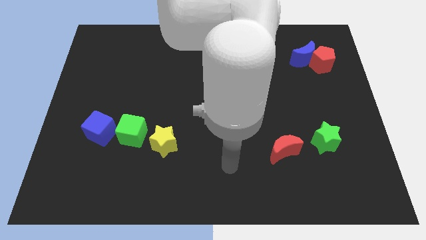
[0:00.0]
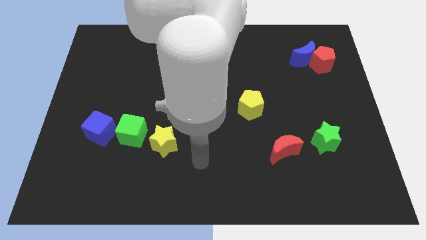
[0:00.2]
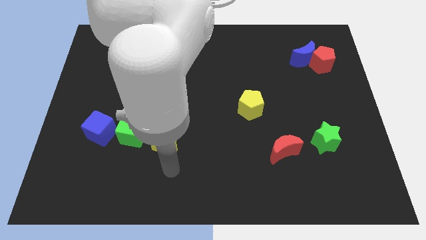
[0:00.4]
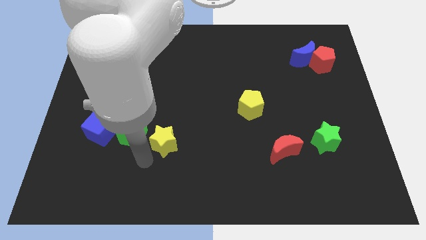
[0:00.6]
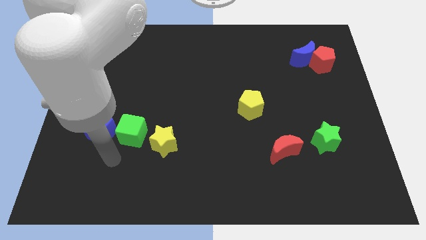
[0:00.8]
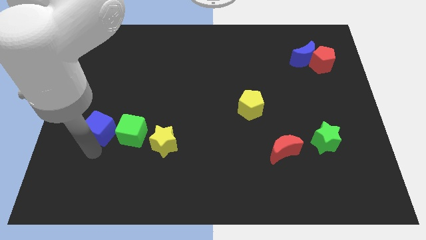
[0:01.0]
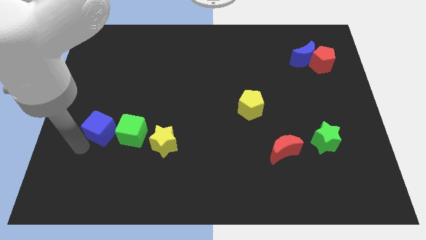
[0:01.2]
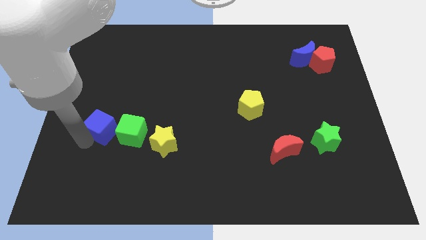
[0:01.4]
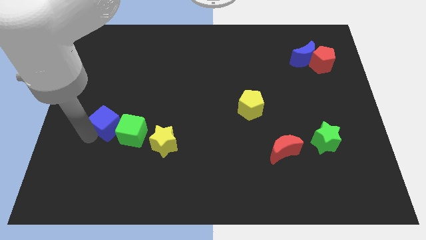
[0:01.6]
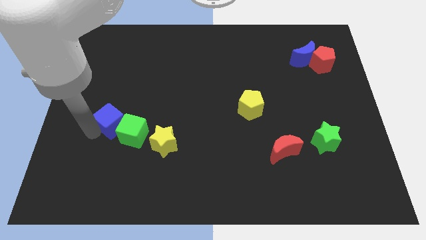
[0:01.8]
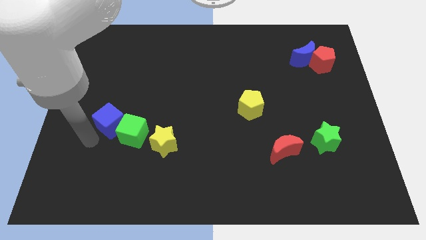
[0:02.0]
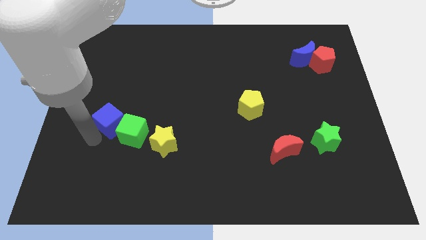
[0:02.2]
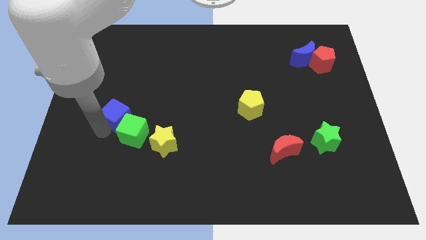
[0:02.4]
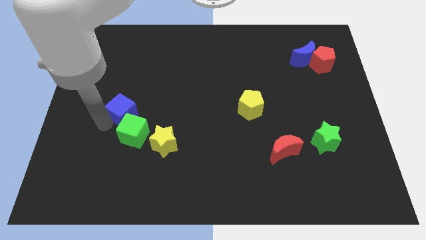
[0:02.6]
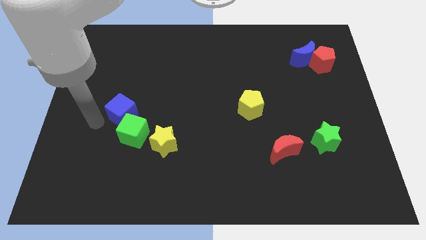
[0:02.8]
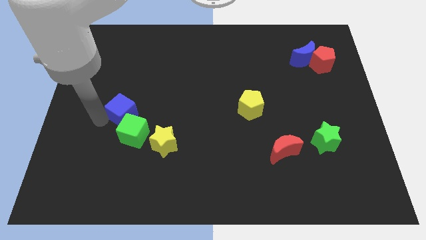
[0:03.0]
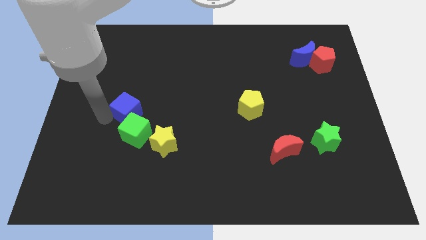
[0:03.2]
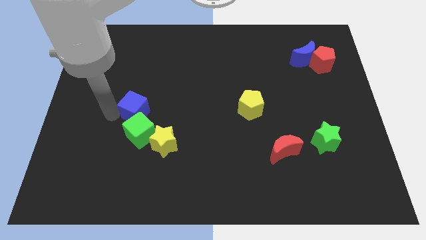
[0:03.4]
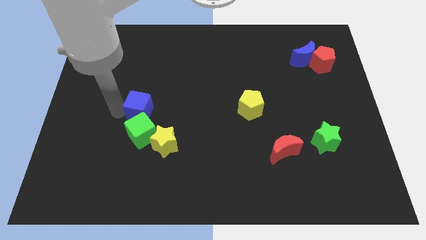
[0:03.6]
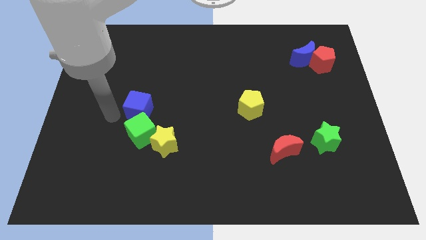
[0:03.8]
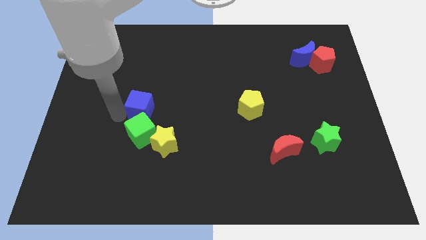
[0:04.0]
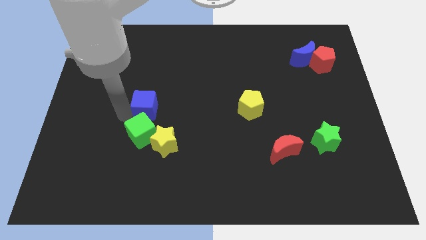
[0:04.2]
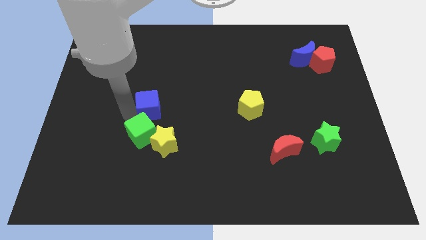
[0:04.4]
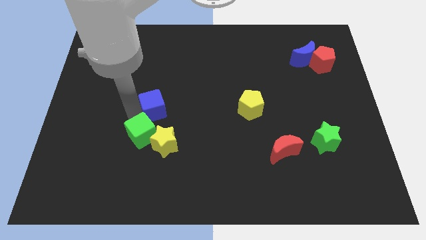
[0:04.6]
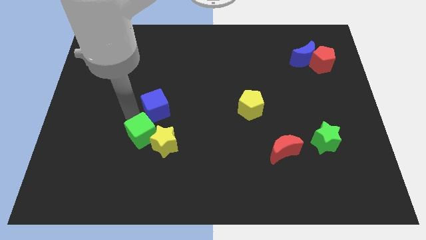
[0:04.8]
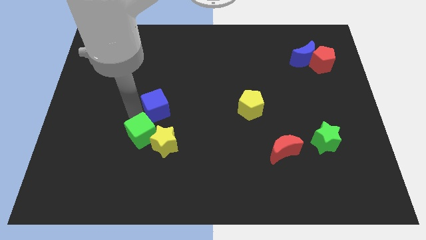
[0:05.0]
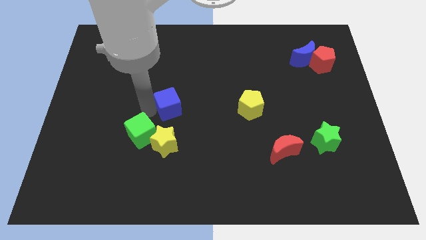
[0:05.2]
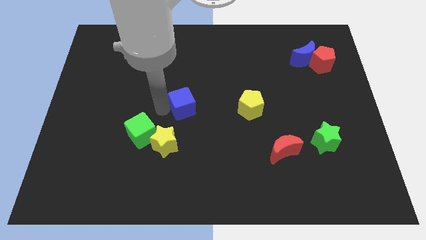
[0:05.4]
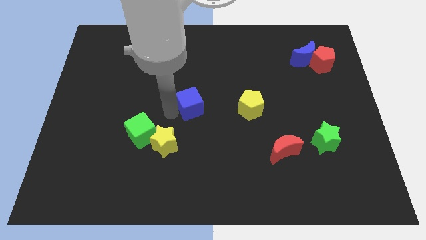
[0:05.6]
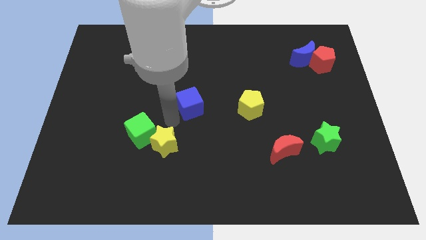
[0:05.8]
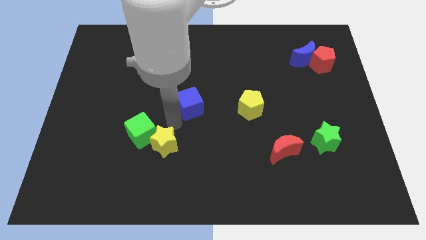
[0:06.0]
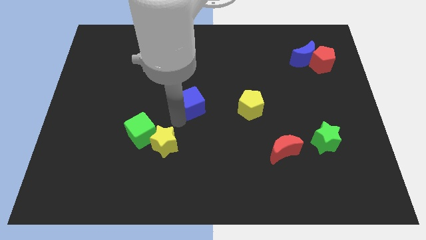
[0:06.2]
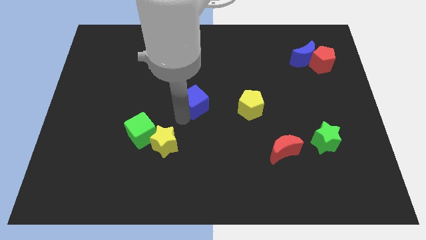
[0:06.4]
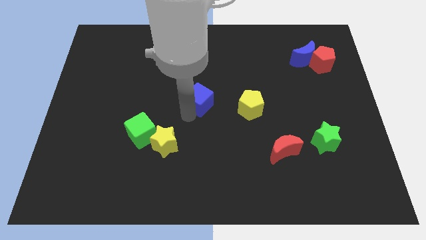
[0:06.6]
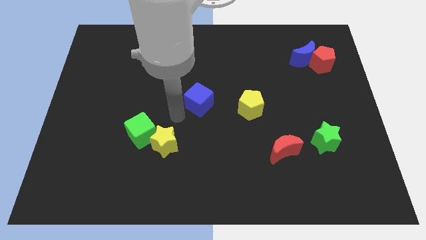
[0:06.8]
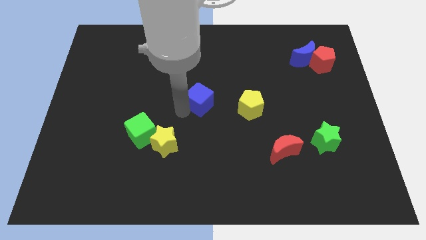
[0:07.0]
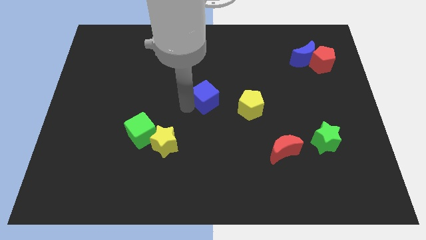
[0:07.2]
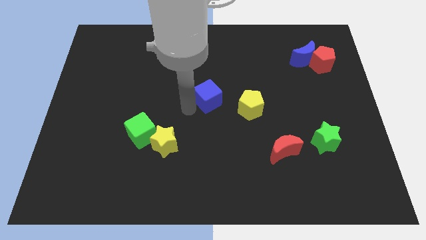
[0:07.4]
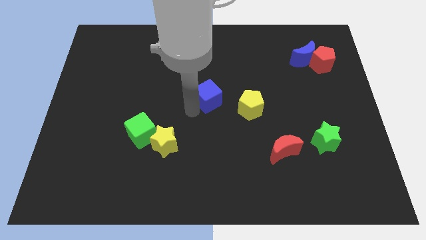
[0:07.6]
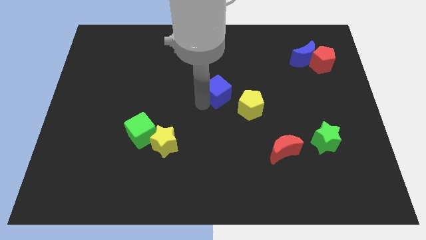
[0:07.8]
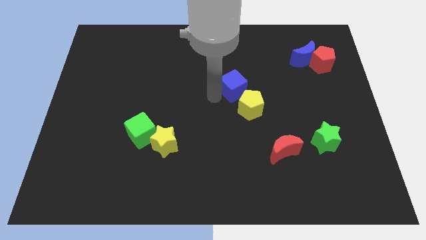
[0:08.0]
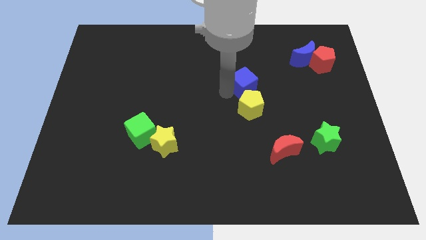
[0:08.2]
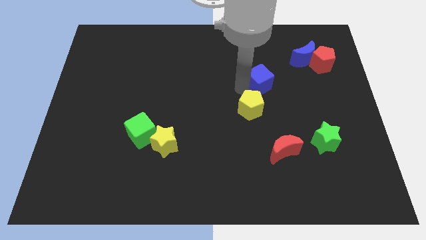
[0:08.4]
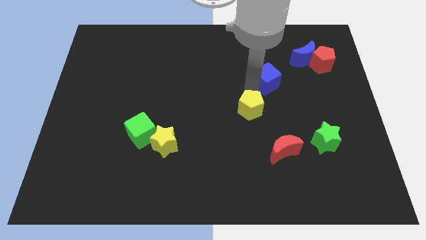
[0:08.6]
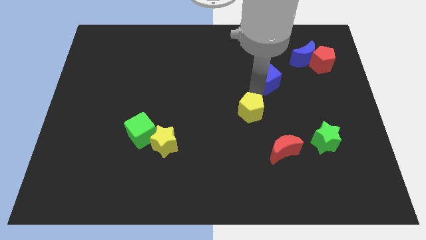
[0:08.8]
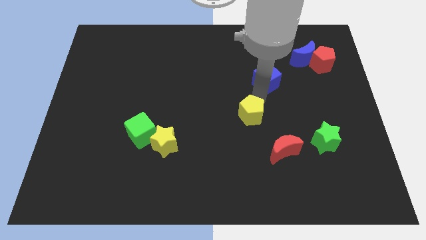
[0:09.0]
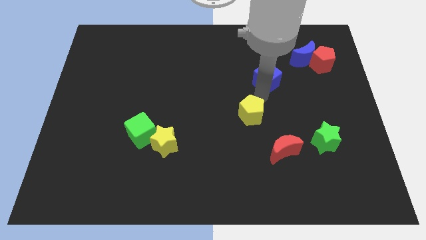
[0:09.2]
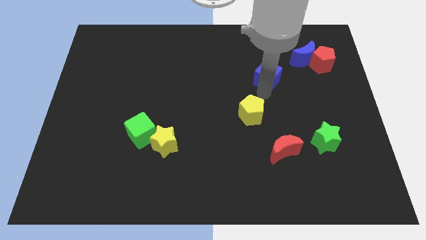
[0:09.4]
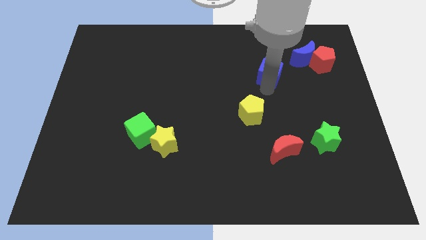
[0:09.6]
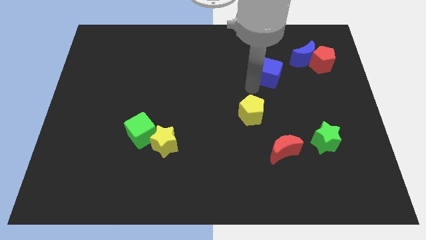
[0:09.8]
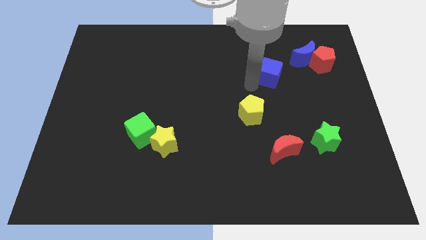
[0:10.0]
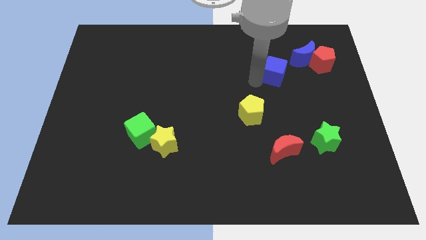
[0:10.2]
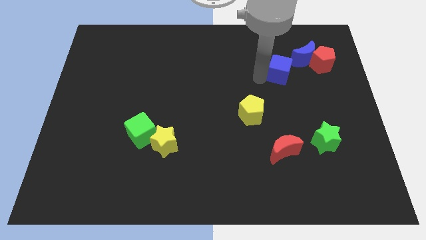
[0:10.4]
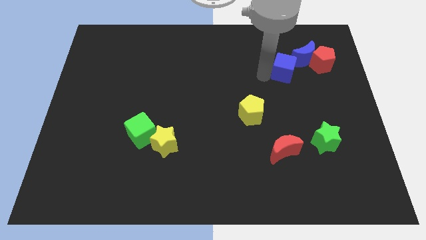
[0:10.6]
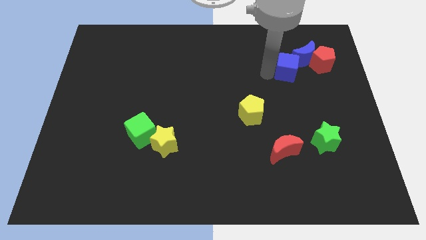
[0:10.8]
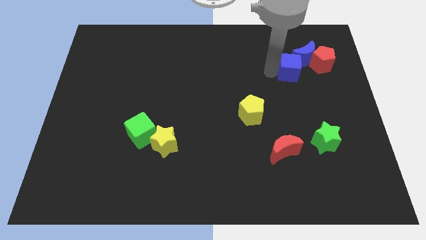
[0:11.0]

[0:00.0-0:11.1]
put the blue cube next to the blue moon

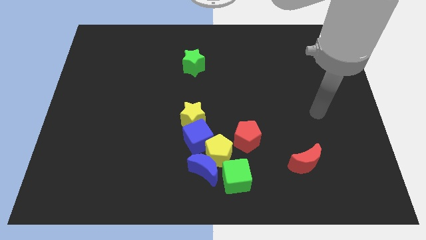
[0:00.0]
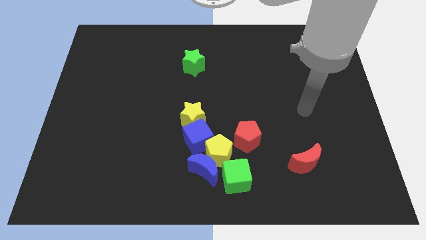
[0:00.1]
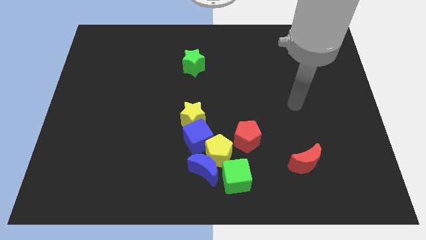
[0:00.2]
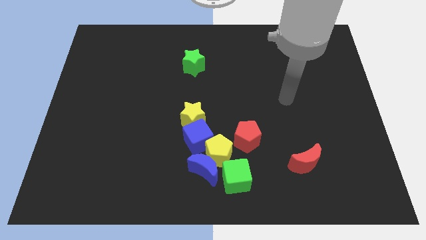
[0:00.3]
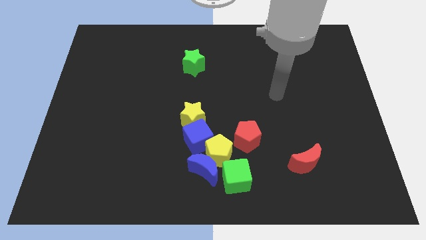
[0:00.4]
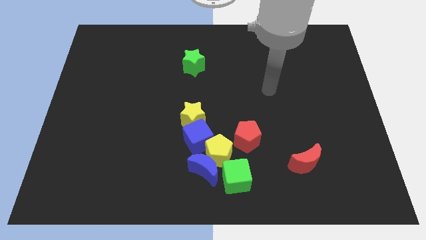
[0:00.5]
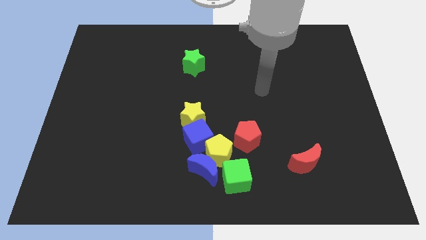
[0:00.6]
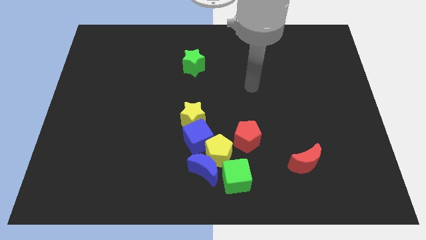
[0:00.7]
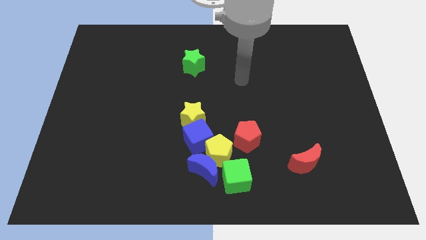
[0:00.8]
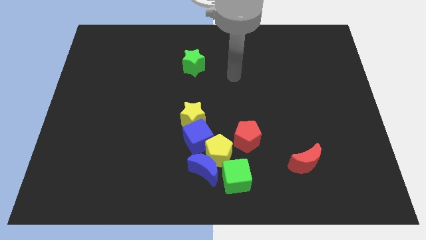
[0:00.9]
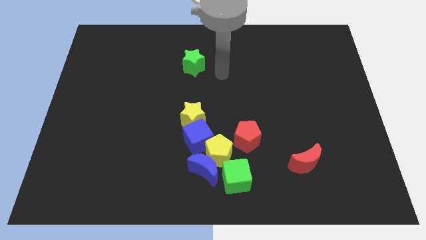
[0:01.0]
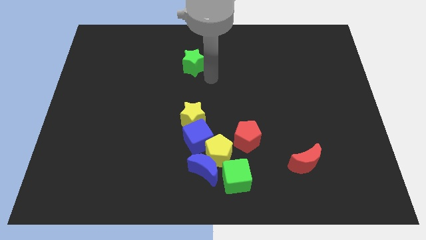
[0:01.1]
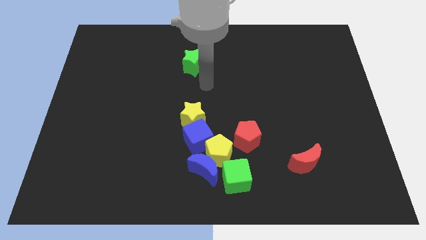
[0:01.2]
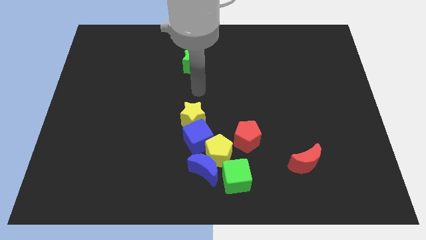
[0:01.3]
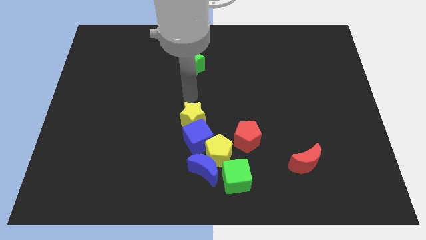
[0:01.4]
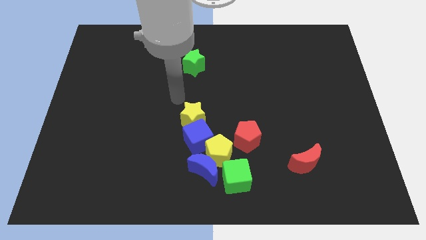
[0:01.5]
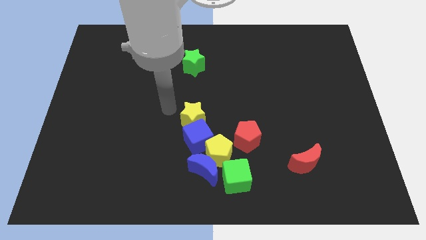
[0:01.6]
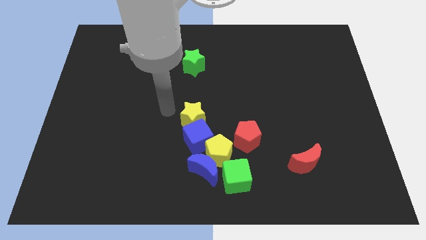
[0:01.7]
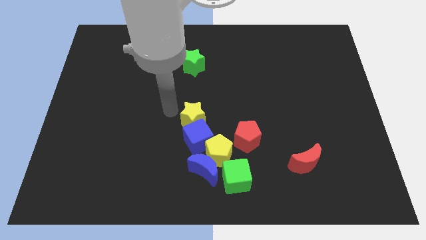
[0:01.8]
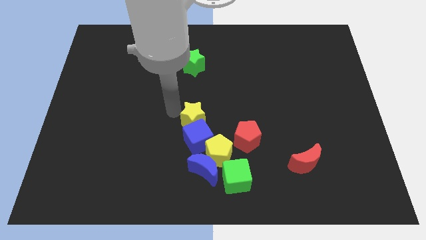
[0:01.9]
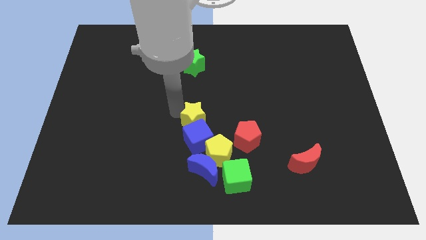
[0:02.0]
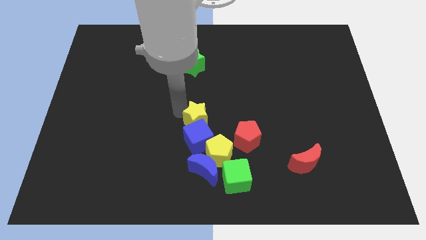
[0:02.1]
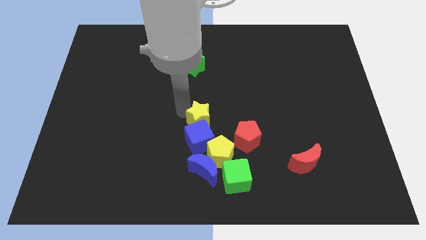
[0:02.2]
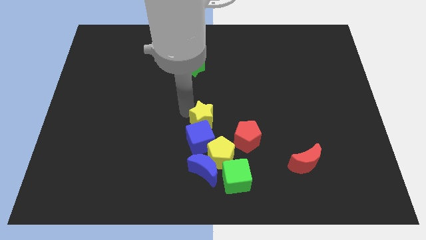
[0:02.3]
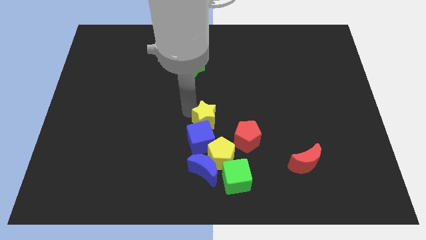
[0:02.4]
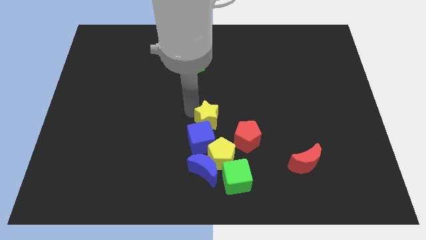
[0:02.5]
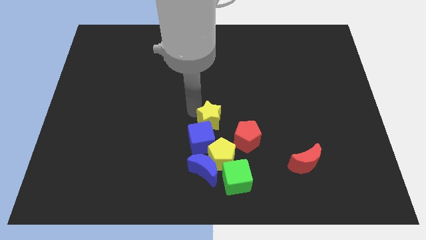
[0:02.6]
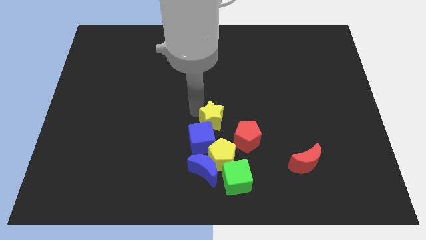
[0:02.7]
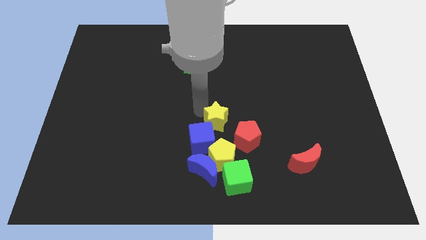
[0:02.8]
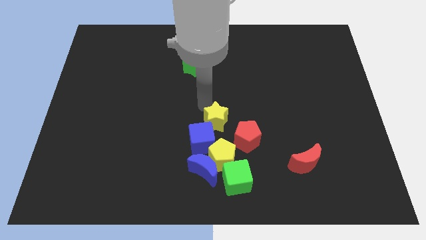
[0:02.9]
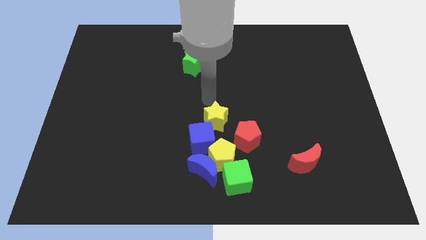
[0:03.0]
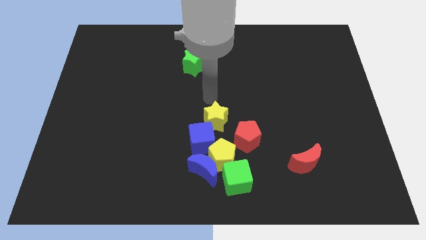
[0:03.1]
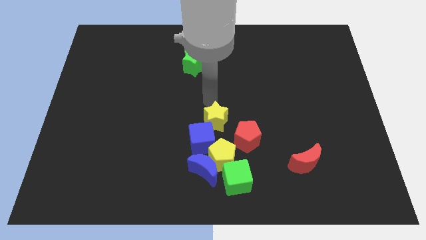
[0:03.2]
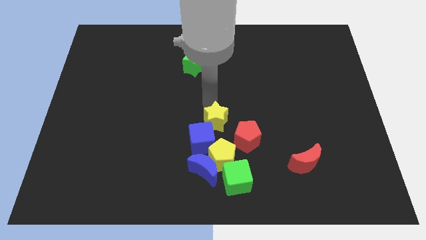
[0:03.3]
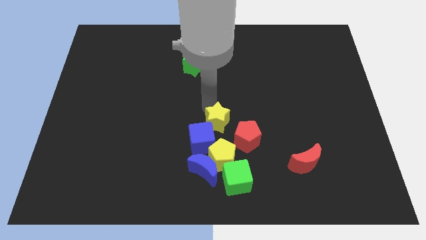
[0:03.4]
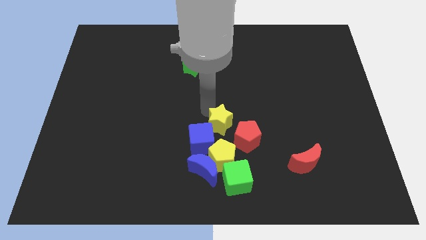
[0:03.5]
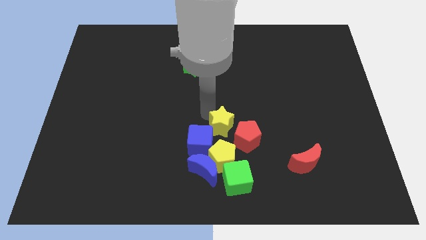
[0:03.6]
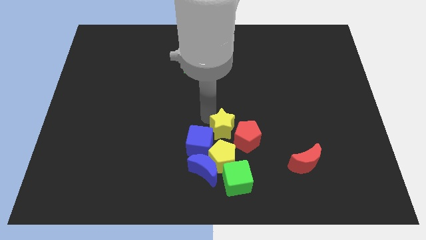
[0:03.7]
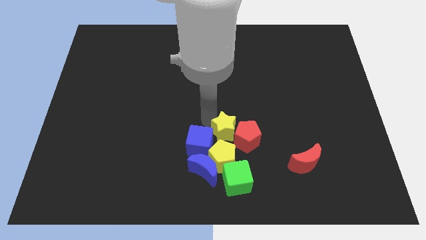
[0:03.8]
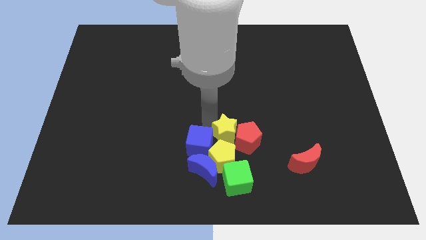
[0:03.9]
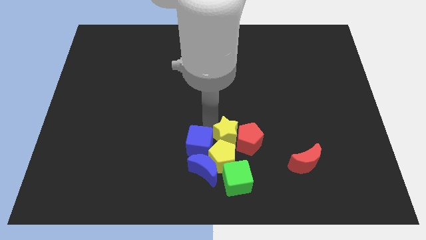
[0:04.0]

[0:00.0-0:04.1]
slide the yellow star next to the yellow pentagon
